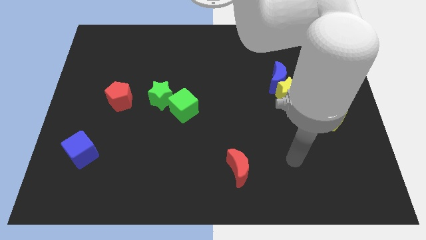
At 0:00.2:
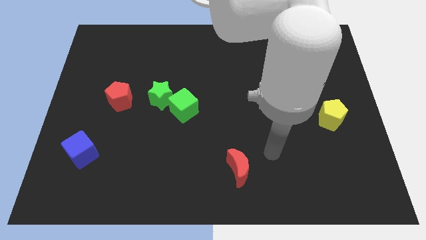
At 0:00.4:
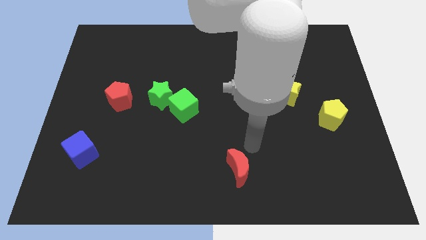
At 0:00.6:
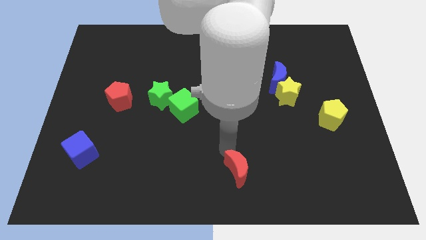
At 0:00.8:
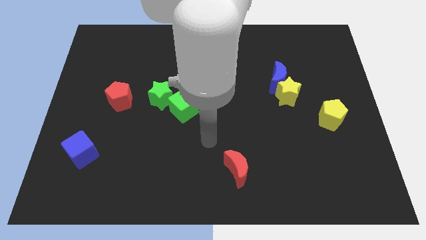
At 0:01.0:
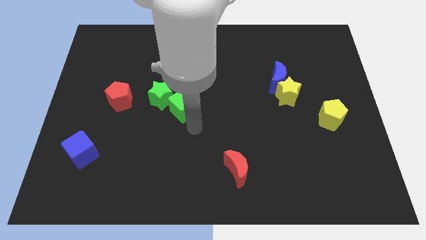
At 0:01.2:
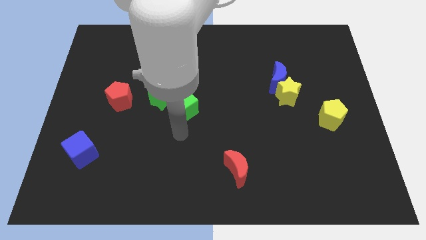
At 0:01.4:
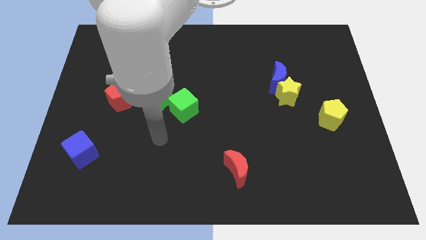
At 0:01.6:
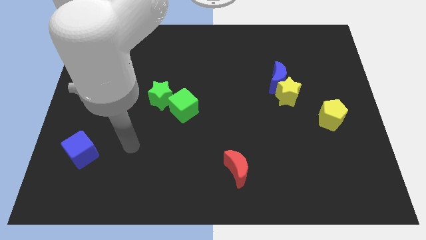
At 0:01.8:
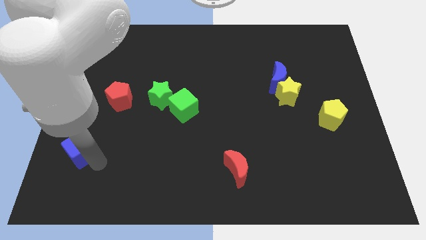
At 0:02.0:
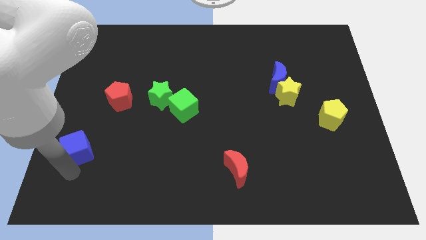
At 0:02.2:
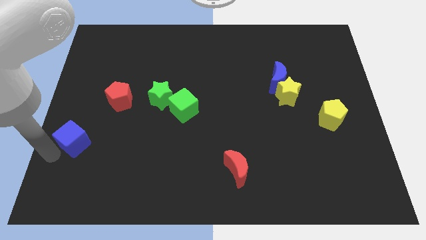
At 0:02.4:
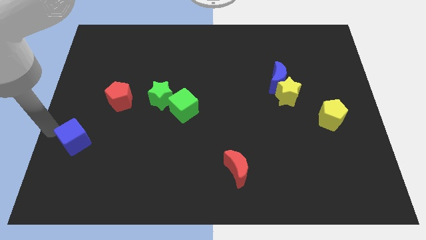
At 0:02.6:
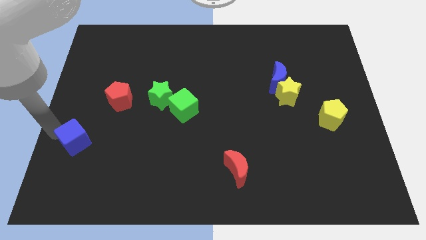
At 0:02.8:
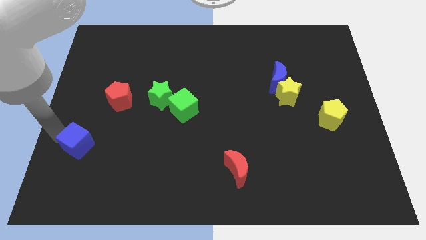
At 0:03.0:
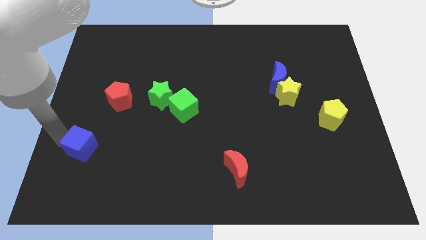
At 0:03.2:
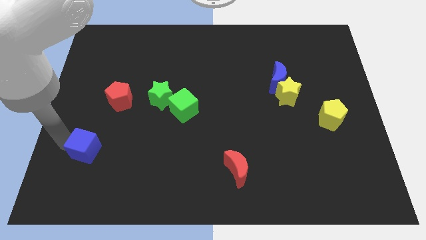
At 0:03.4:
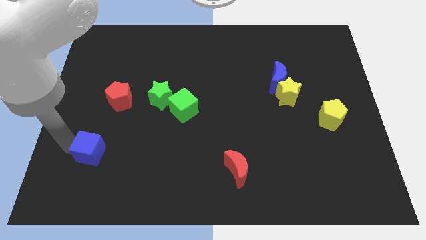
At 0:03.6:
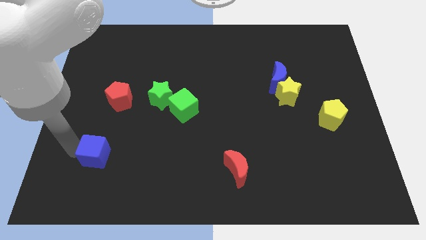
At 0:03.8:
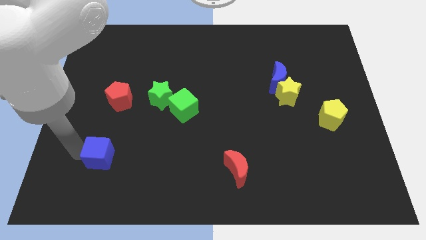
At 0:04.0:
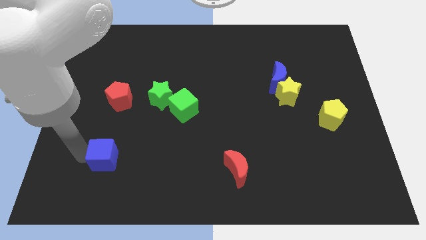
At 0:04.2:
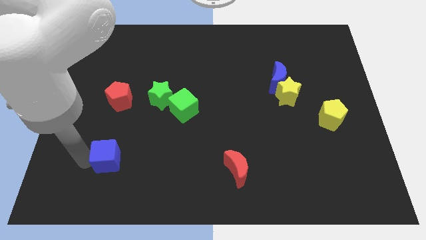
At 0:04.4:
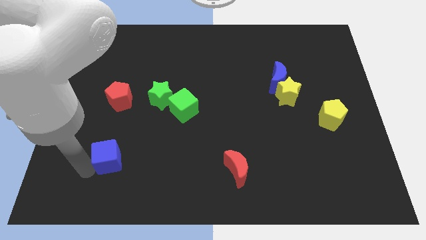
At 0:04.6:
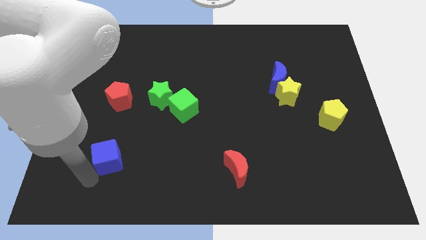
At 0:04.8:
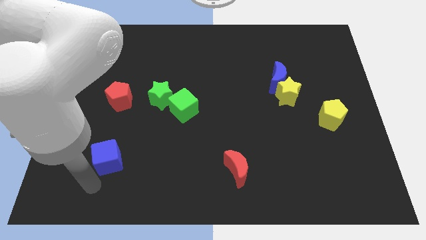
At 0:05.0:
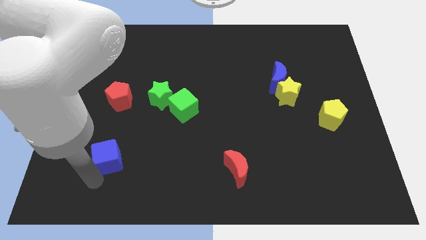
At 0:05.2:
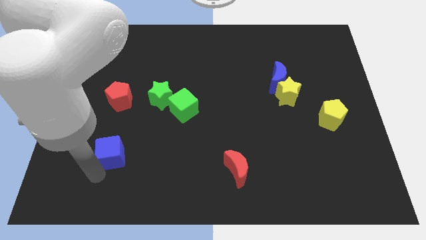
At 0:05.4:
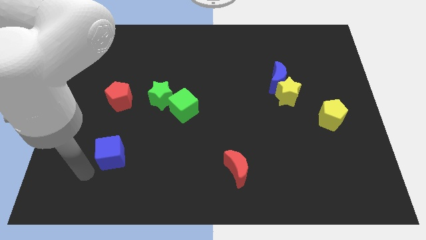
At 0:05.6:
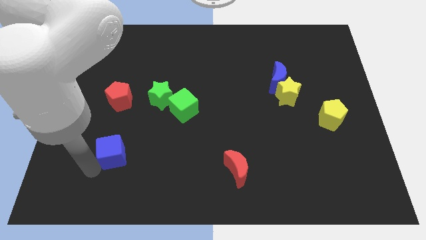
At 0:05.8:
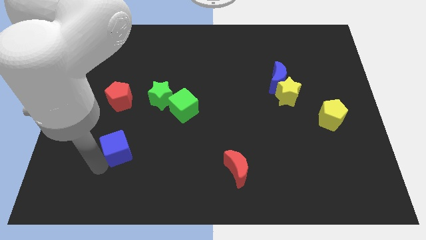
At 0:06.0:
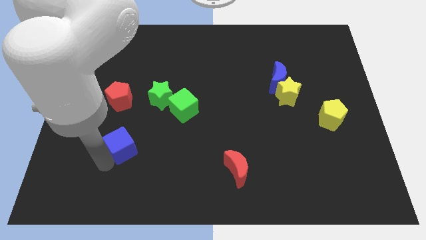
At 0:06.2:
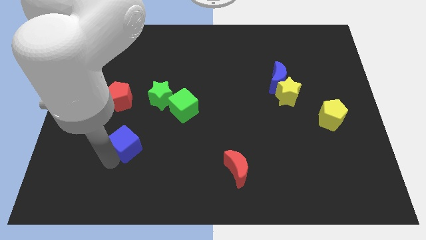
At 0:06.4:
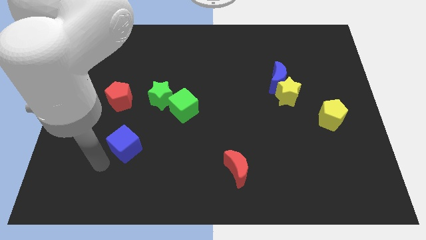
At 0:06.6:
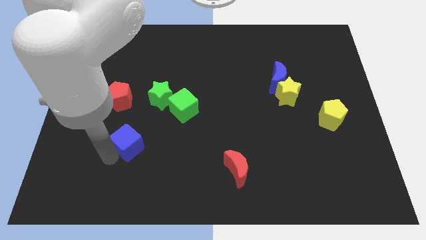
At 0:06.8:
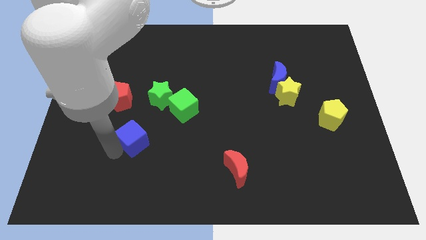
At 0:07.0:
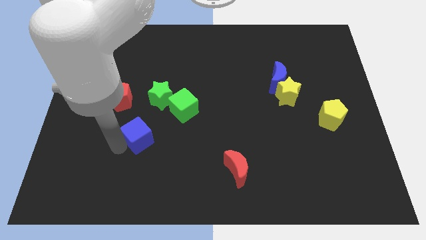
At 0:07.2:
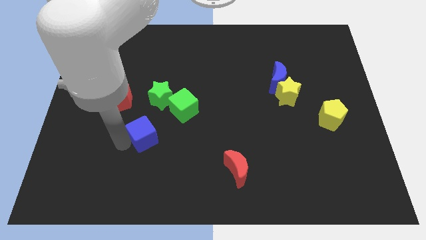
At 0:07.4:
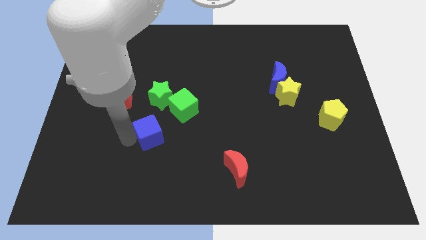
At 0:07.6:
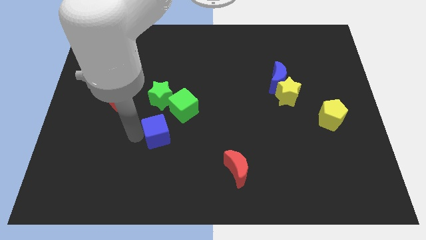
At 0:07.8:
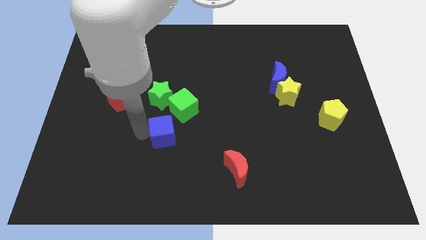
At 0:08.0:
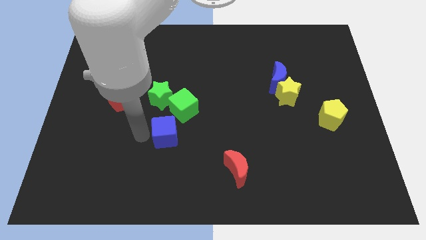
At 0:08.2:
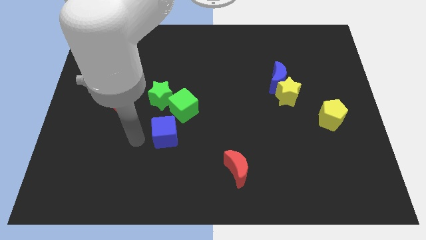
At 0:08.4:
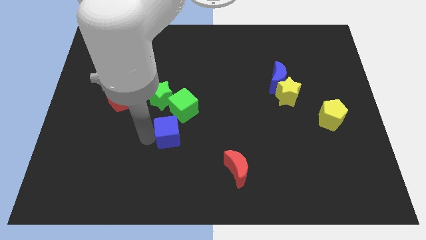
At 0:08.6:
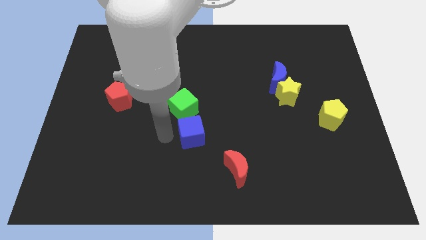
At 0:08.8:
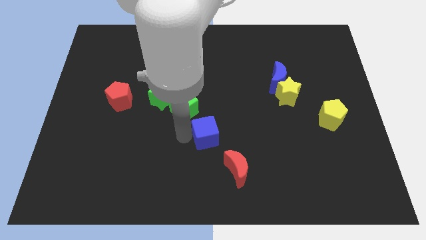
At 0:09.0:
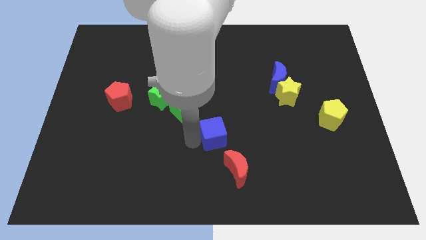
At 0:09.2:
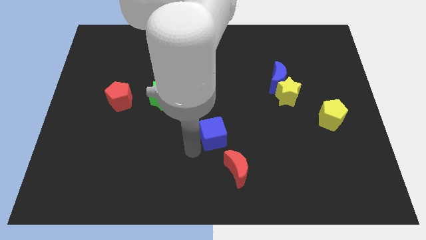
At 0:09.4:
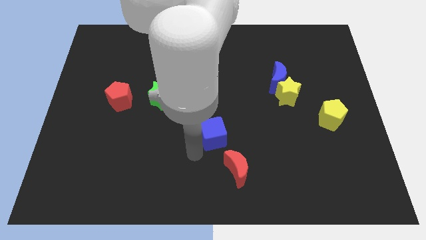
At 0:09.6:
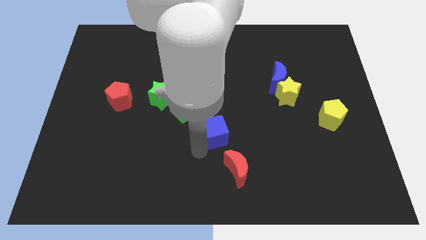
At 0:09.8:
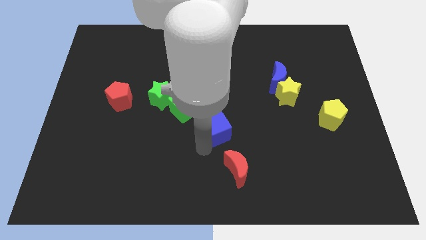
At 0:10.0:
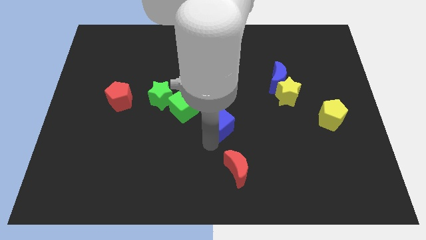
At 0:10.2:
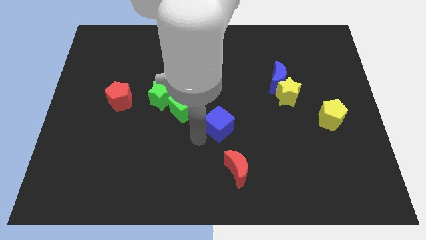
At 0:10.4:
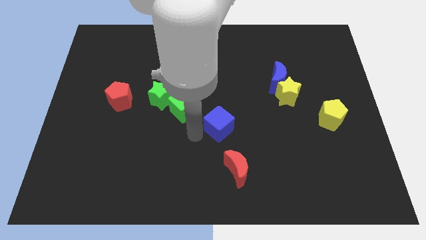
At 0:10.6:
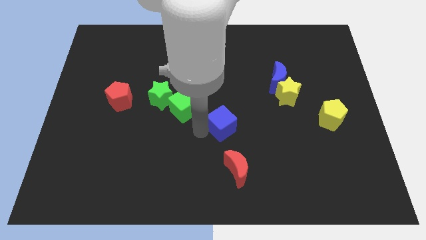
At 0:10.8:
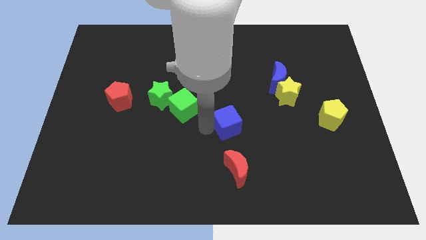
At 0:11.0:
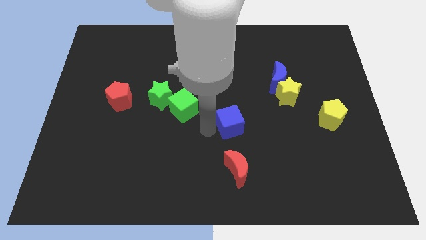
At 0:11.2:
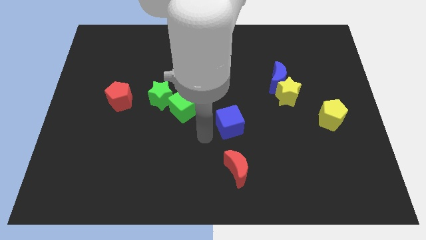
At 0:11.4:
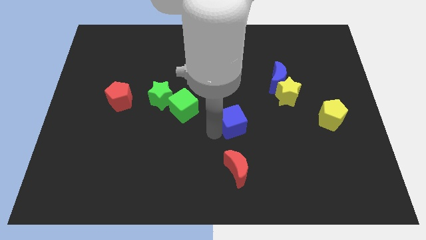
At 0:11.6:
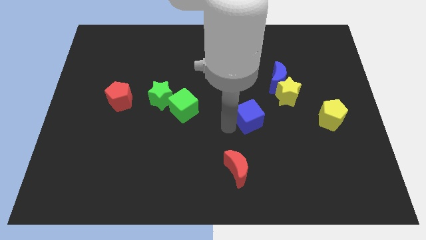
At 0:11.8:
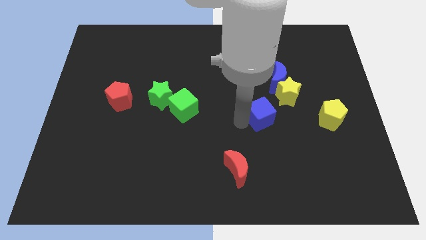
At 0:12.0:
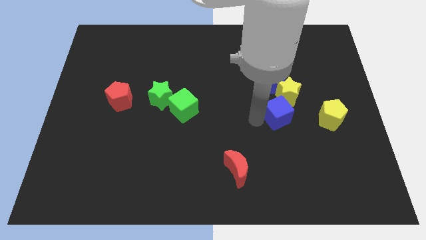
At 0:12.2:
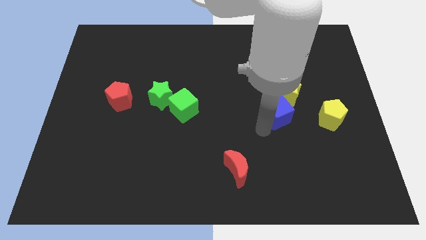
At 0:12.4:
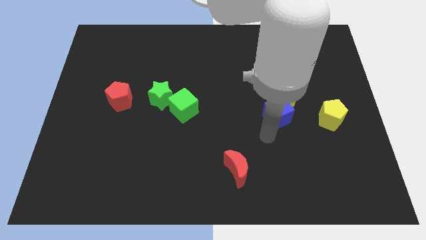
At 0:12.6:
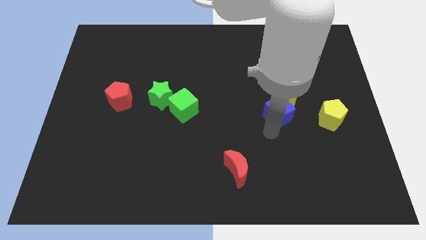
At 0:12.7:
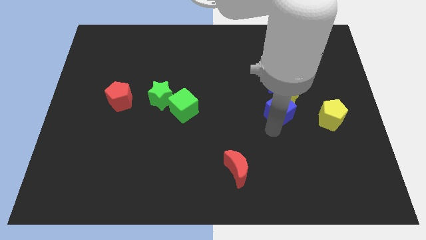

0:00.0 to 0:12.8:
move the blue cube next to the yellow star

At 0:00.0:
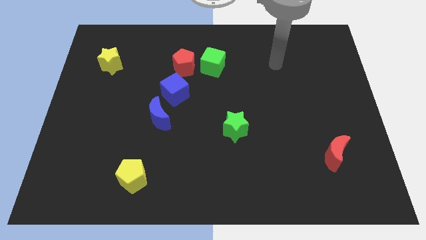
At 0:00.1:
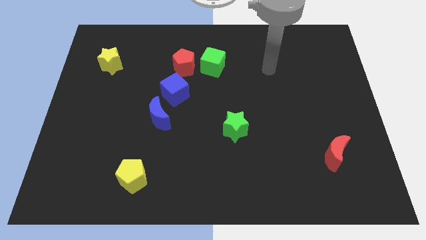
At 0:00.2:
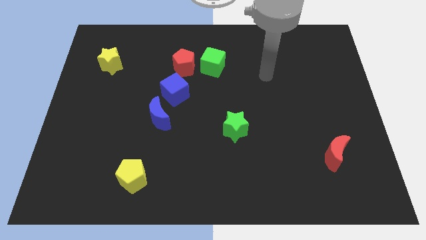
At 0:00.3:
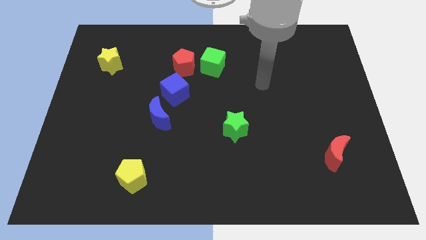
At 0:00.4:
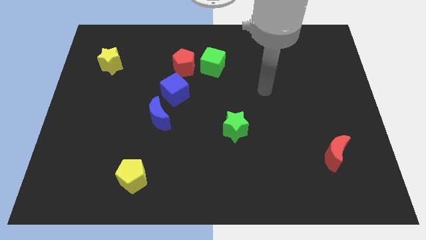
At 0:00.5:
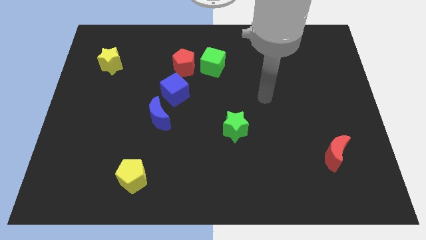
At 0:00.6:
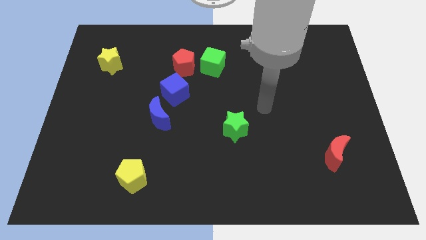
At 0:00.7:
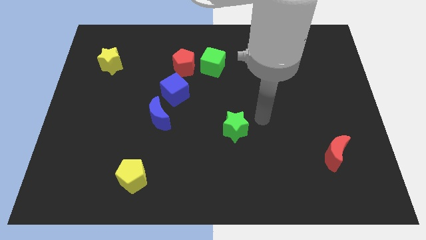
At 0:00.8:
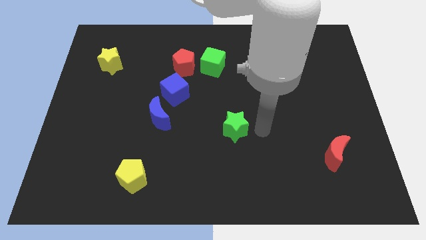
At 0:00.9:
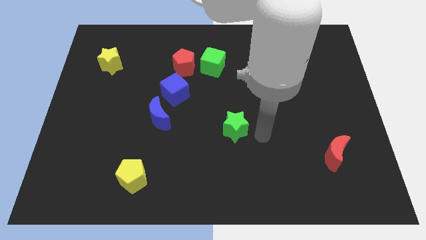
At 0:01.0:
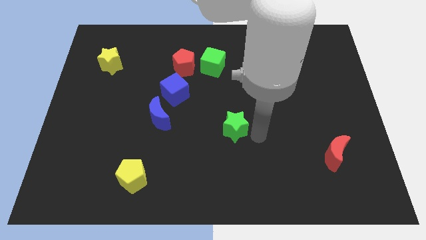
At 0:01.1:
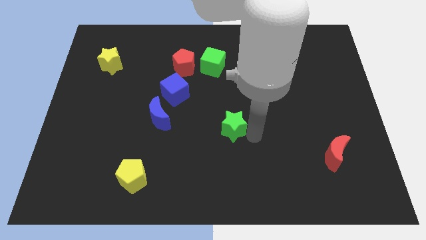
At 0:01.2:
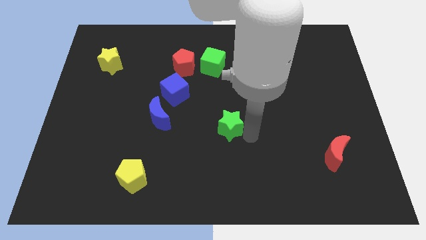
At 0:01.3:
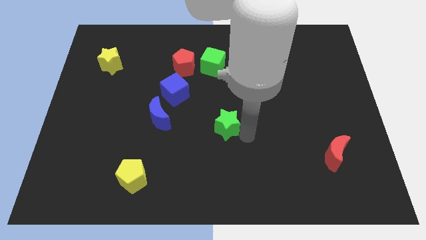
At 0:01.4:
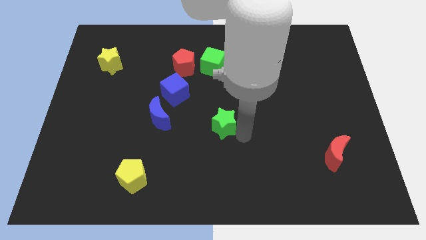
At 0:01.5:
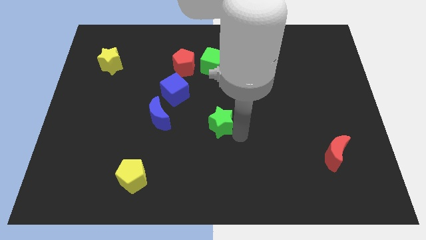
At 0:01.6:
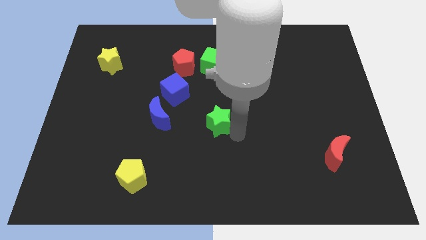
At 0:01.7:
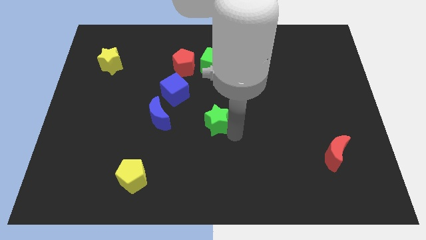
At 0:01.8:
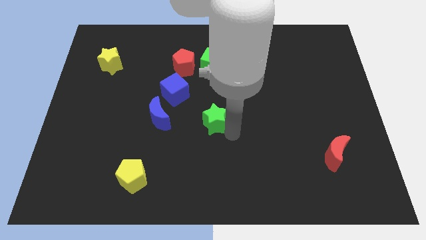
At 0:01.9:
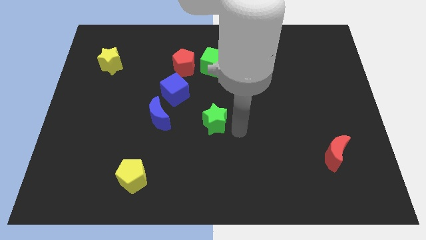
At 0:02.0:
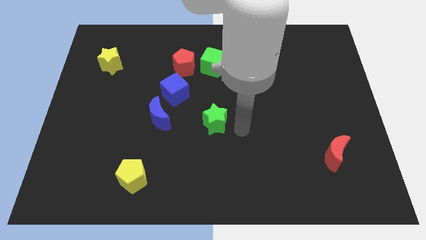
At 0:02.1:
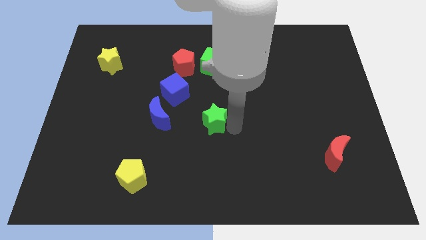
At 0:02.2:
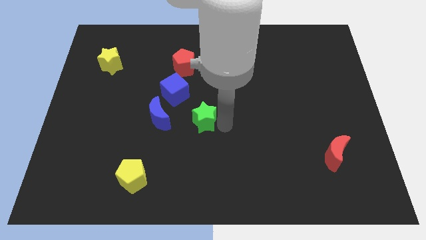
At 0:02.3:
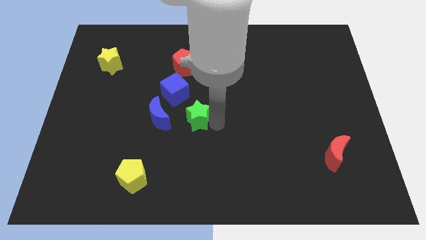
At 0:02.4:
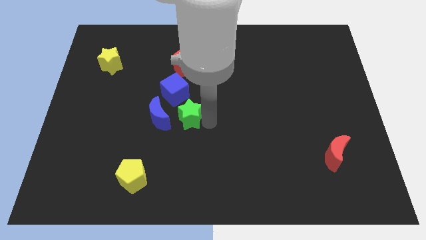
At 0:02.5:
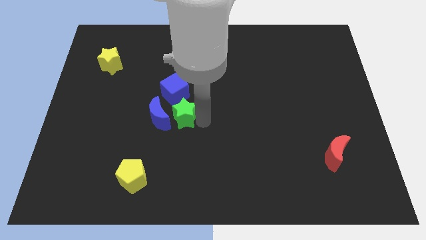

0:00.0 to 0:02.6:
put the green star towards the blue moon
